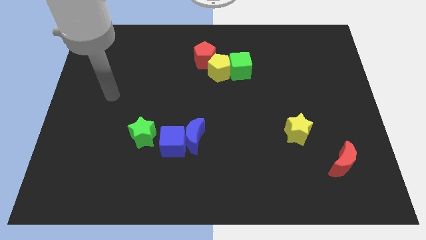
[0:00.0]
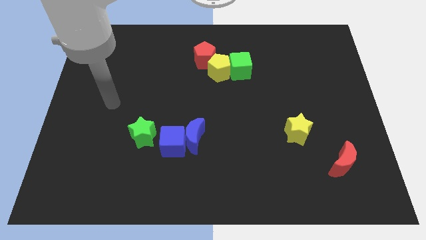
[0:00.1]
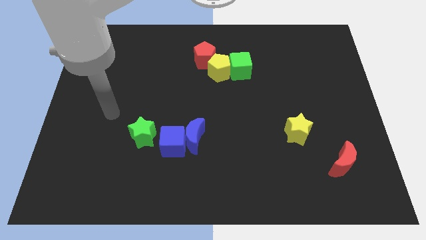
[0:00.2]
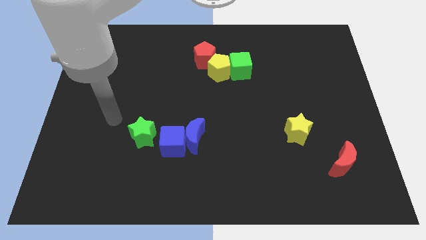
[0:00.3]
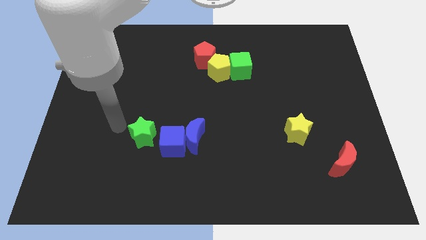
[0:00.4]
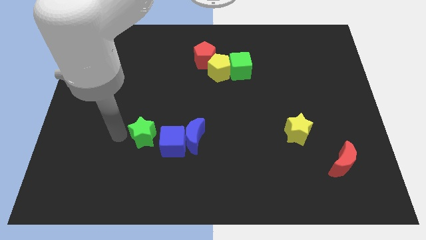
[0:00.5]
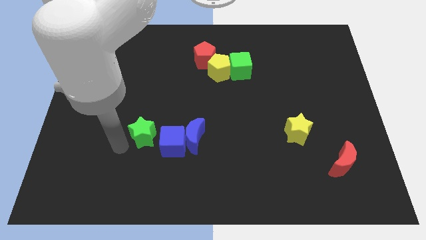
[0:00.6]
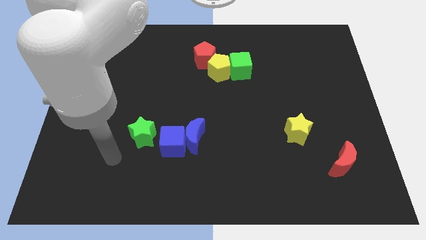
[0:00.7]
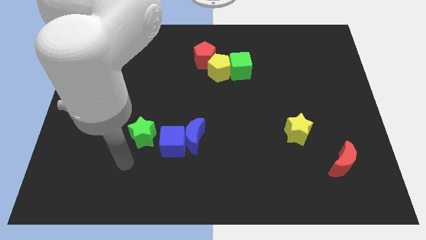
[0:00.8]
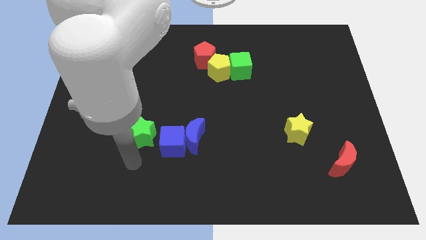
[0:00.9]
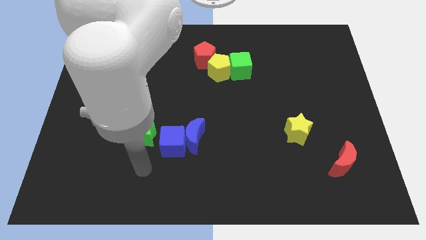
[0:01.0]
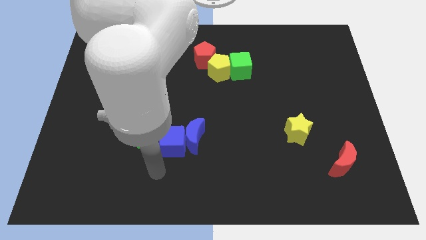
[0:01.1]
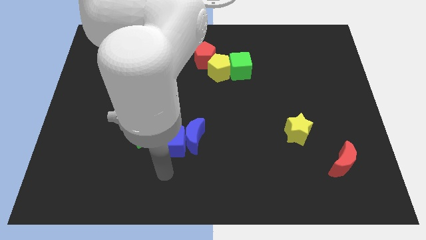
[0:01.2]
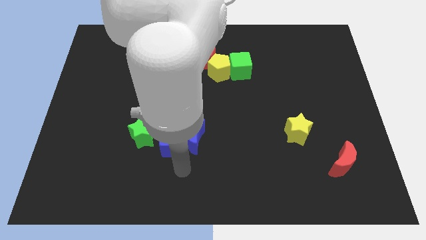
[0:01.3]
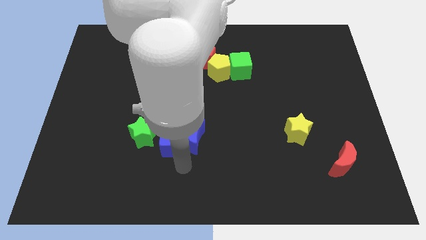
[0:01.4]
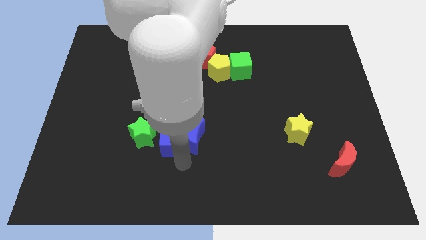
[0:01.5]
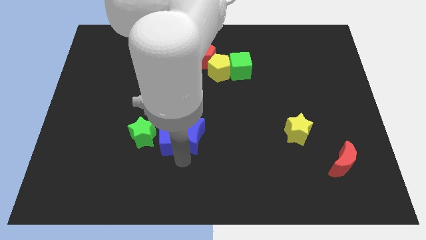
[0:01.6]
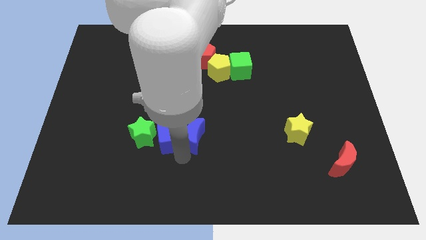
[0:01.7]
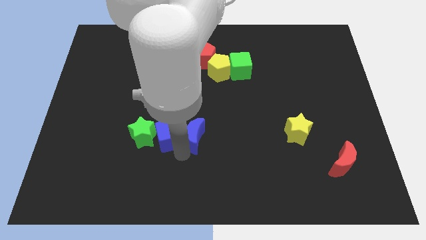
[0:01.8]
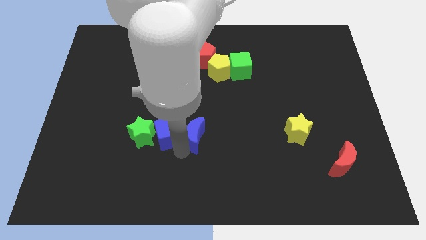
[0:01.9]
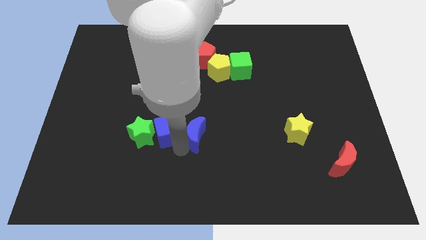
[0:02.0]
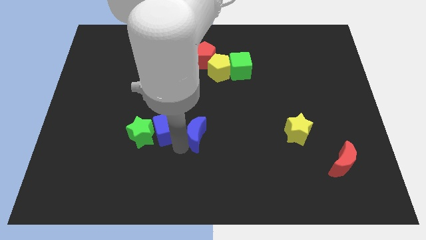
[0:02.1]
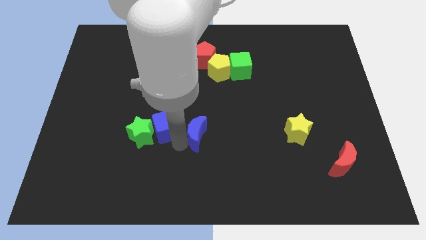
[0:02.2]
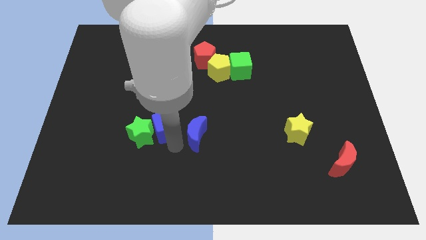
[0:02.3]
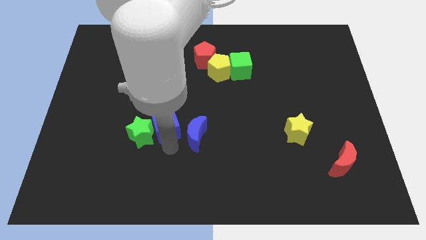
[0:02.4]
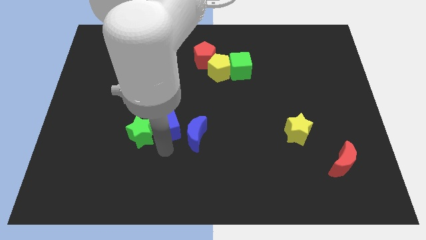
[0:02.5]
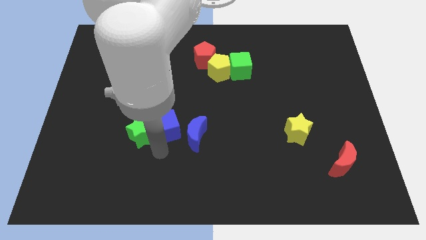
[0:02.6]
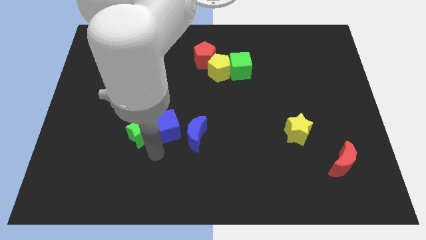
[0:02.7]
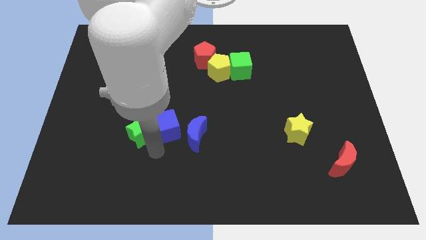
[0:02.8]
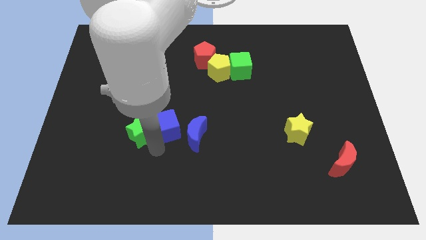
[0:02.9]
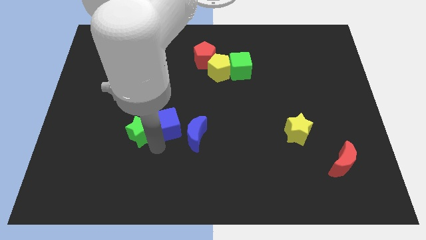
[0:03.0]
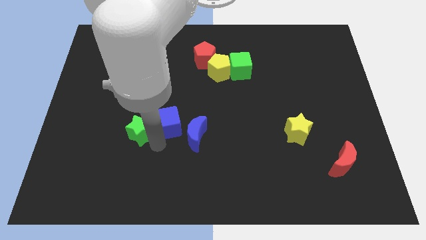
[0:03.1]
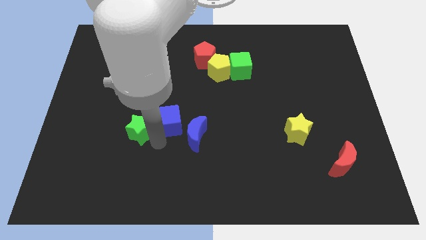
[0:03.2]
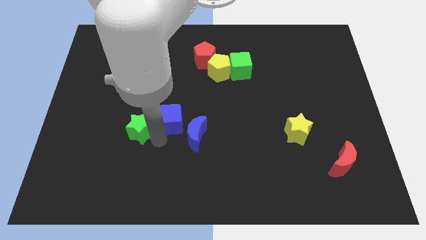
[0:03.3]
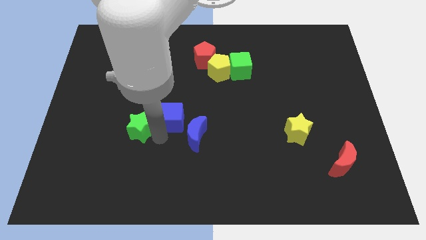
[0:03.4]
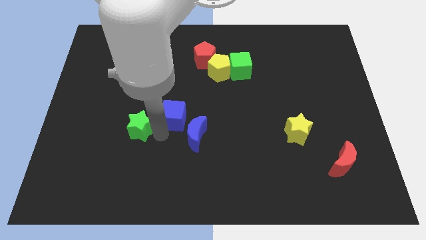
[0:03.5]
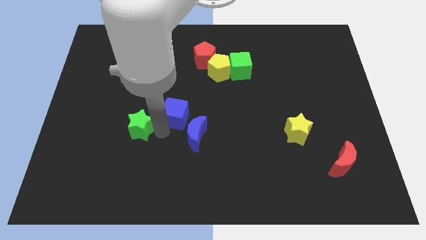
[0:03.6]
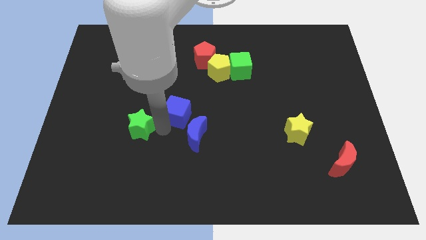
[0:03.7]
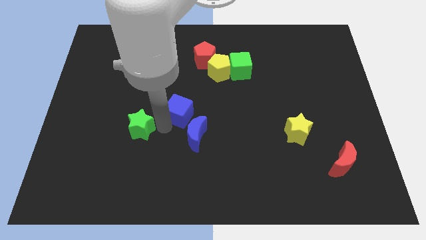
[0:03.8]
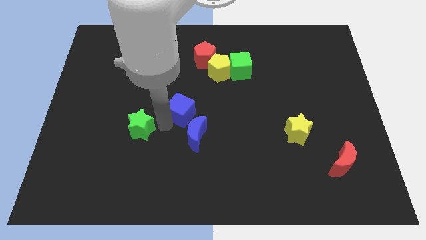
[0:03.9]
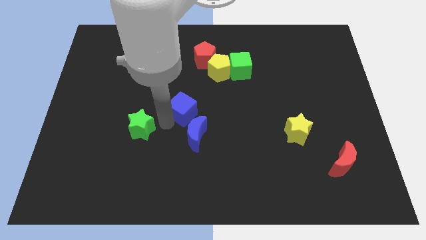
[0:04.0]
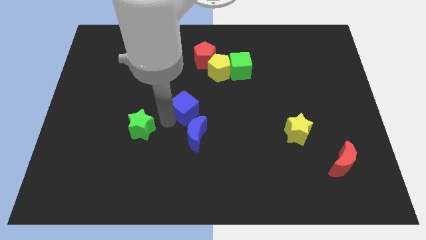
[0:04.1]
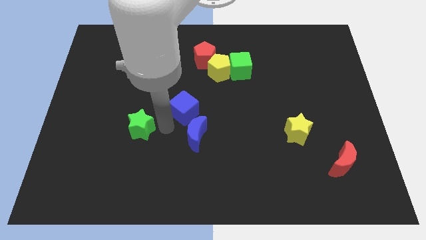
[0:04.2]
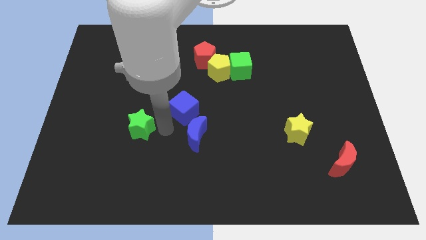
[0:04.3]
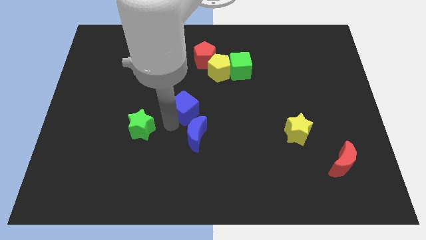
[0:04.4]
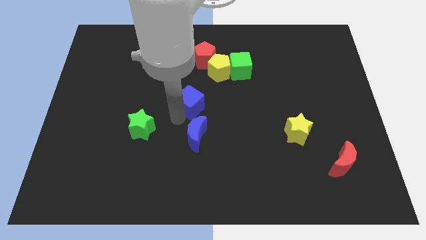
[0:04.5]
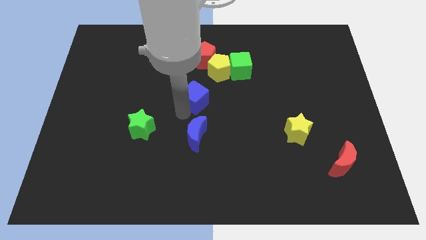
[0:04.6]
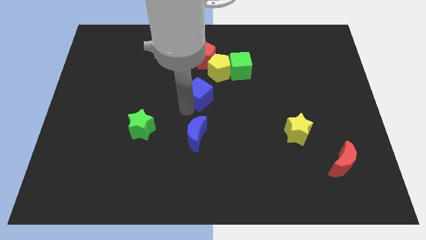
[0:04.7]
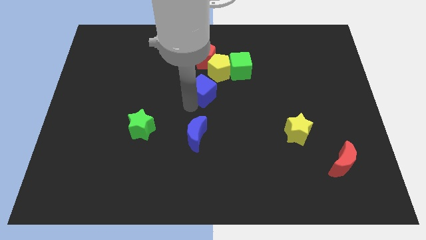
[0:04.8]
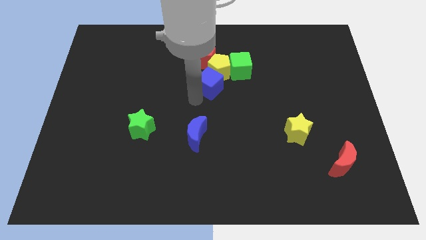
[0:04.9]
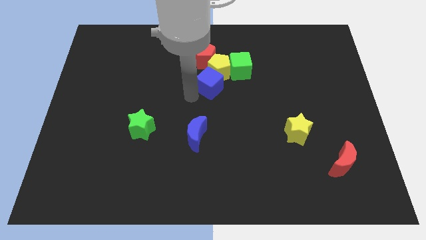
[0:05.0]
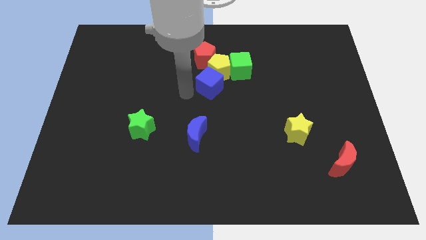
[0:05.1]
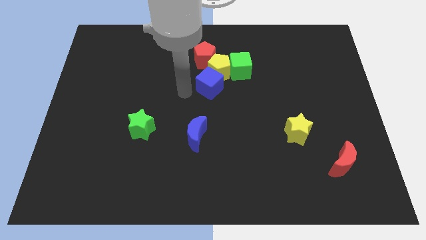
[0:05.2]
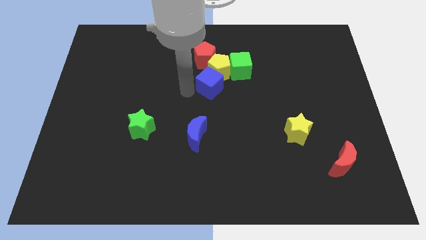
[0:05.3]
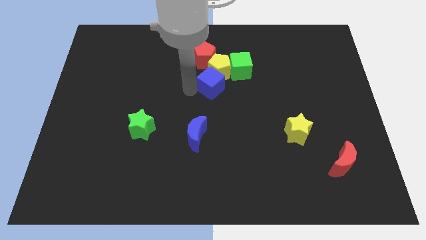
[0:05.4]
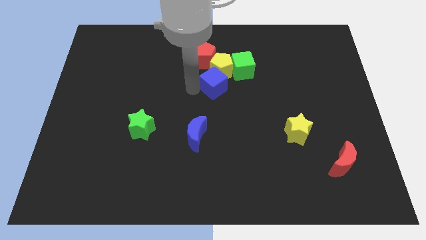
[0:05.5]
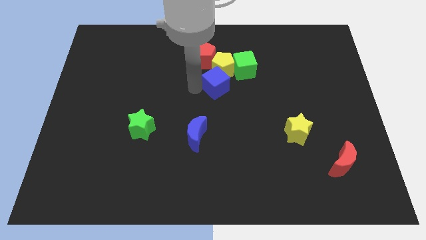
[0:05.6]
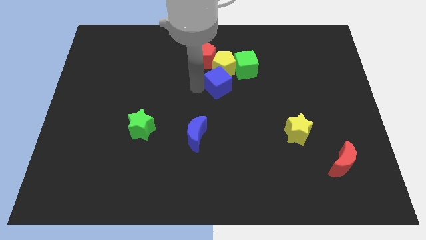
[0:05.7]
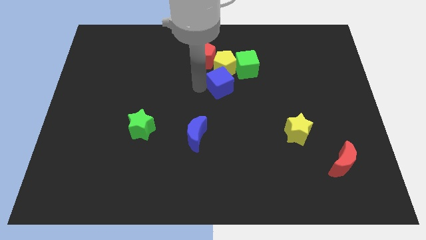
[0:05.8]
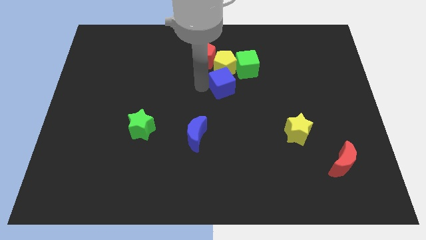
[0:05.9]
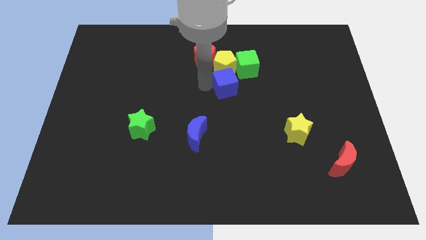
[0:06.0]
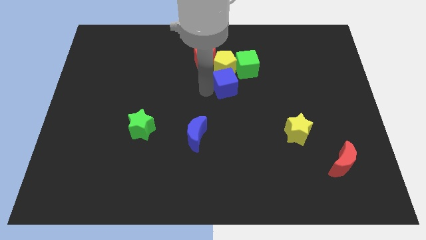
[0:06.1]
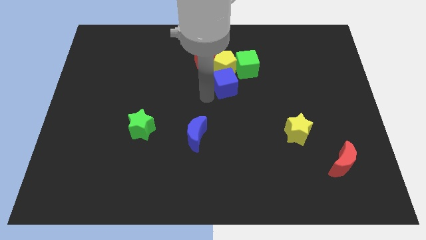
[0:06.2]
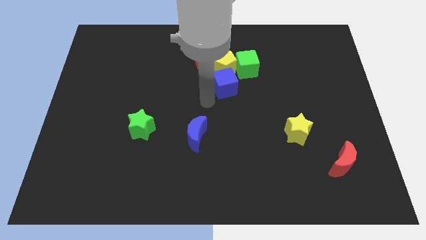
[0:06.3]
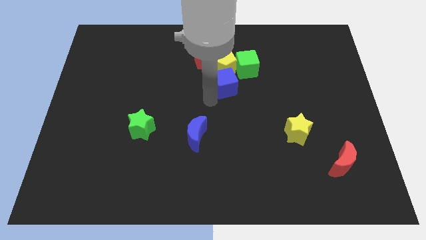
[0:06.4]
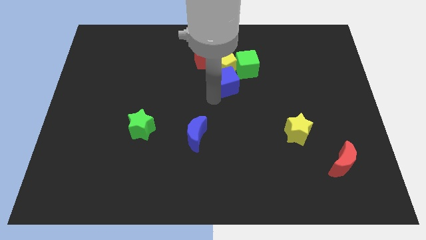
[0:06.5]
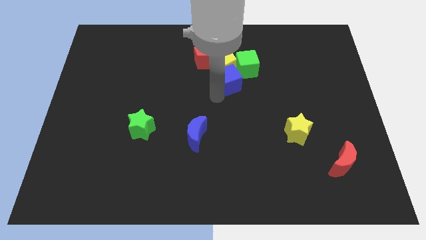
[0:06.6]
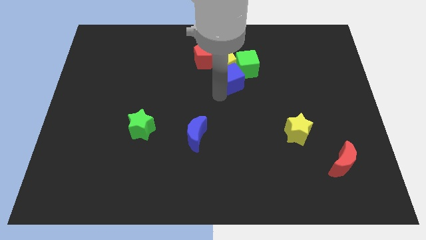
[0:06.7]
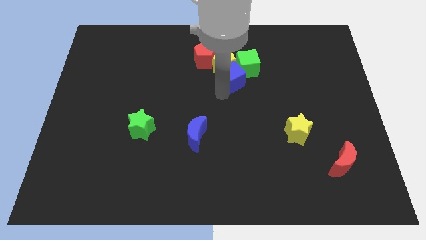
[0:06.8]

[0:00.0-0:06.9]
move the blue cube close to the green cube
